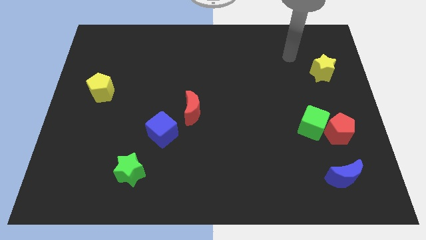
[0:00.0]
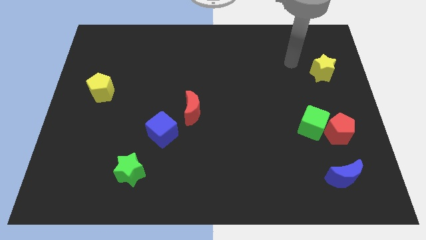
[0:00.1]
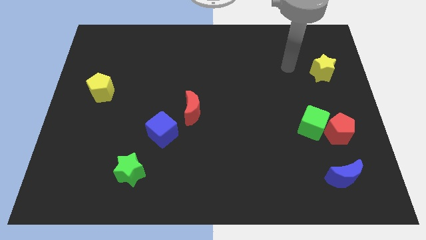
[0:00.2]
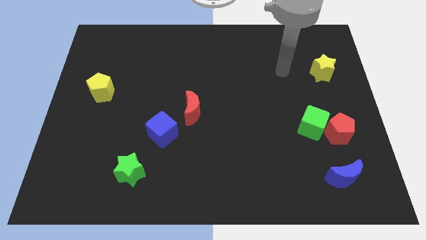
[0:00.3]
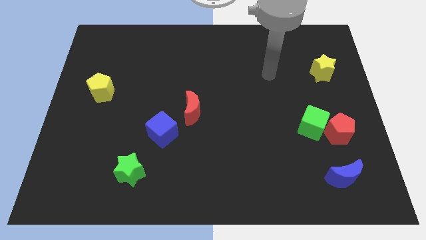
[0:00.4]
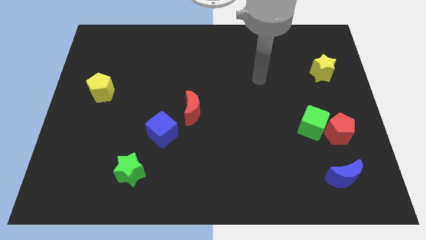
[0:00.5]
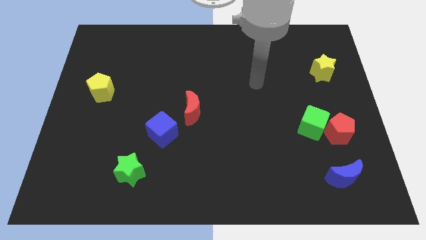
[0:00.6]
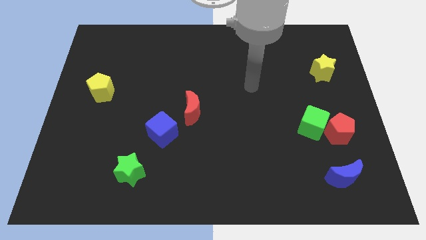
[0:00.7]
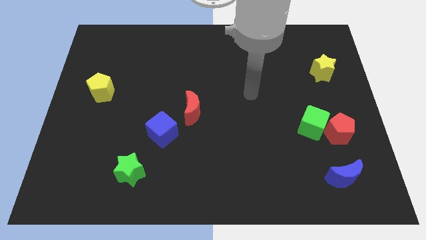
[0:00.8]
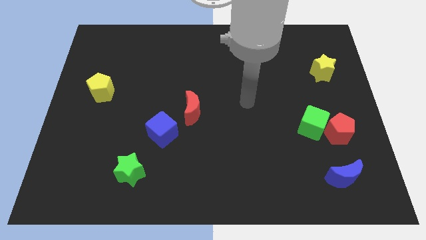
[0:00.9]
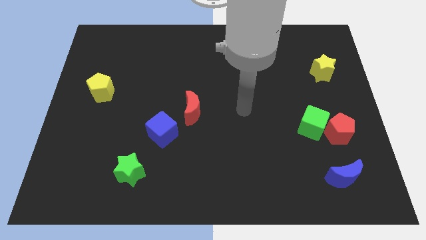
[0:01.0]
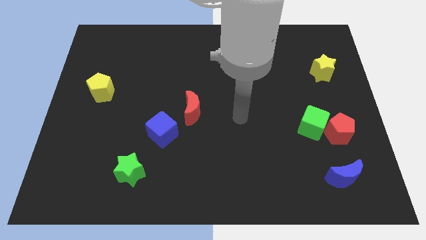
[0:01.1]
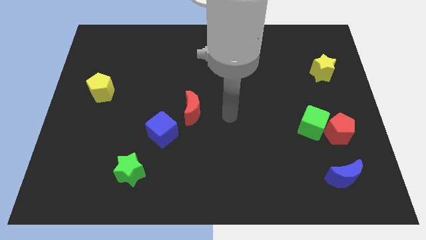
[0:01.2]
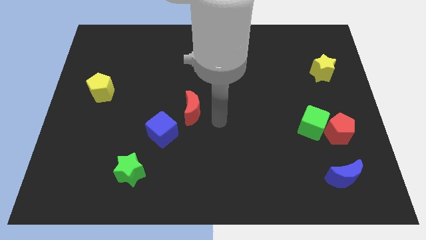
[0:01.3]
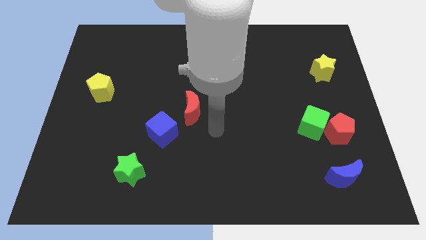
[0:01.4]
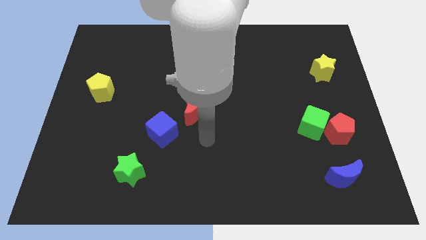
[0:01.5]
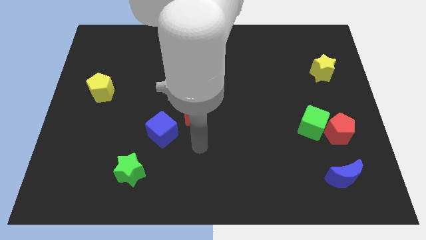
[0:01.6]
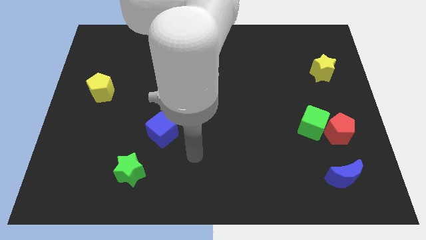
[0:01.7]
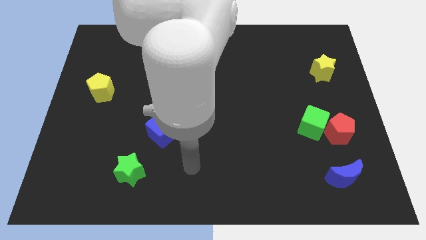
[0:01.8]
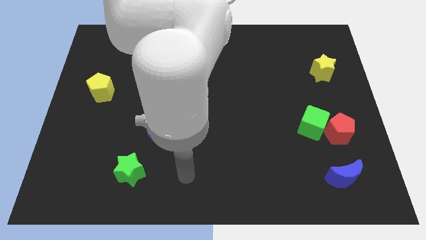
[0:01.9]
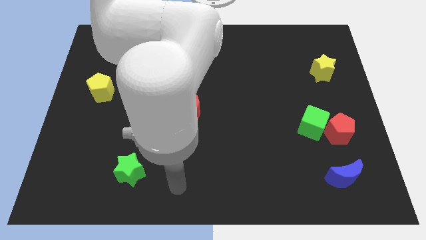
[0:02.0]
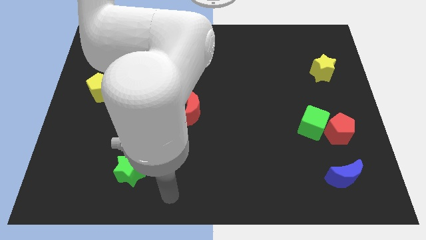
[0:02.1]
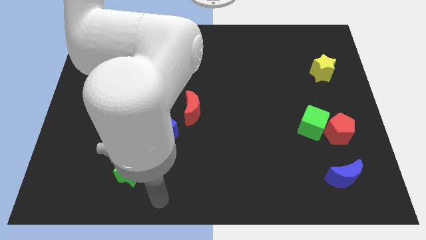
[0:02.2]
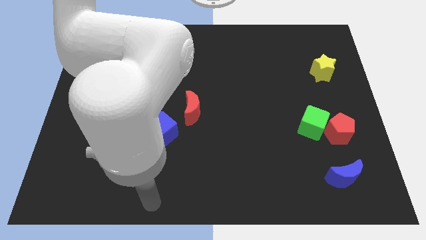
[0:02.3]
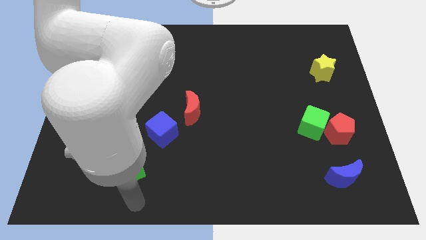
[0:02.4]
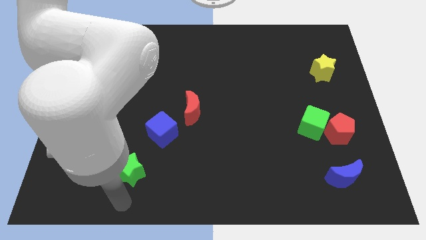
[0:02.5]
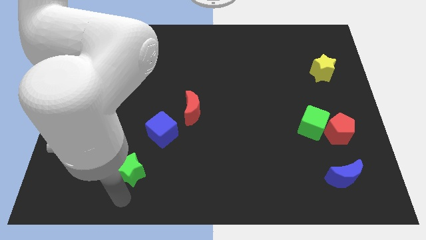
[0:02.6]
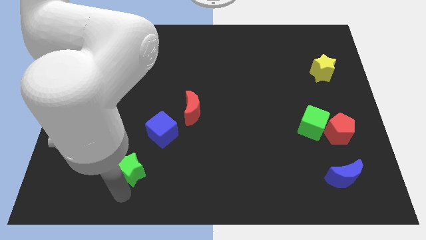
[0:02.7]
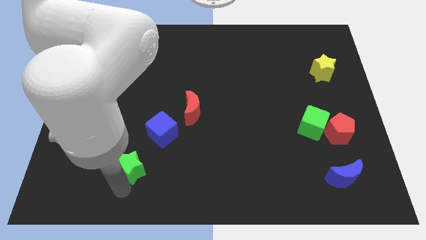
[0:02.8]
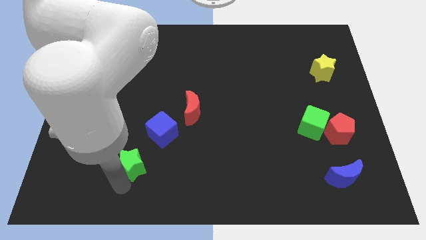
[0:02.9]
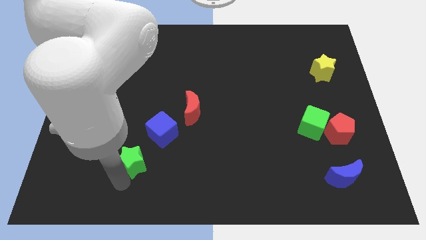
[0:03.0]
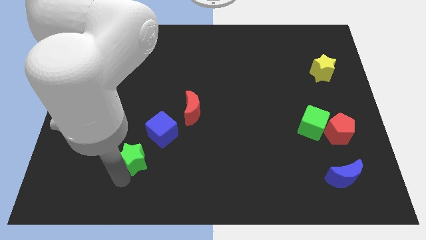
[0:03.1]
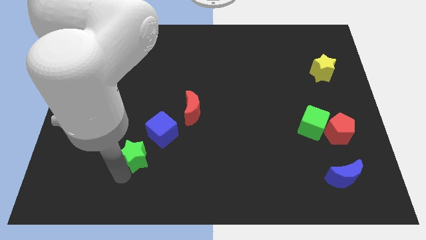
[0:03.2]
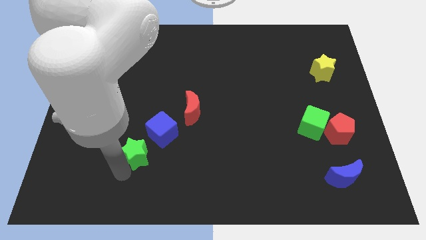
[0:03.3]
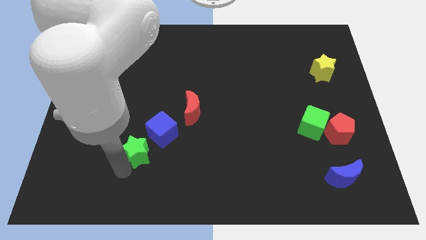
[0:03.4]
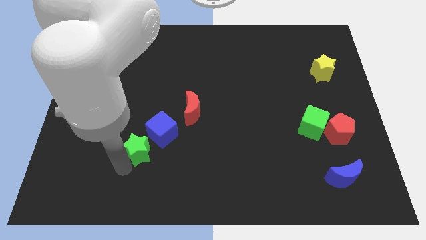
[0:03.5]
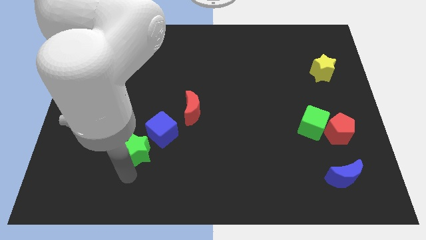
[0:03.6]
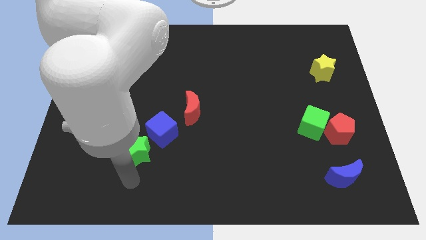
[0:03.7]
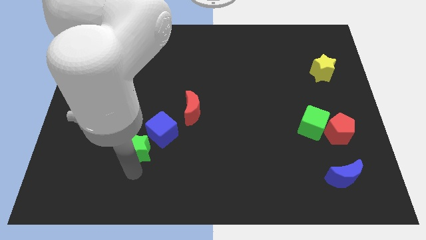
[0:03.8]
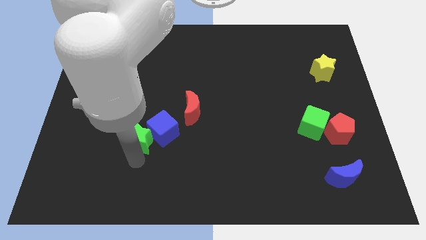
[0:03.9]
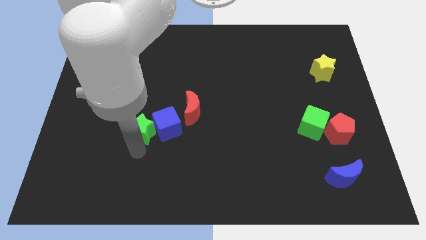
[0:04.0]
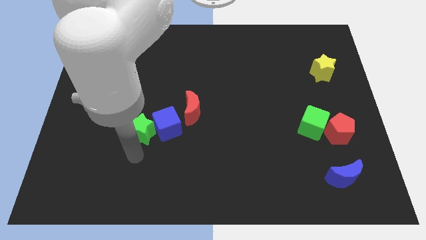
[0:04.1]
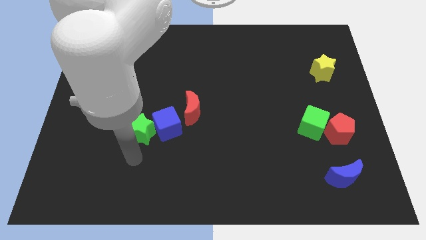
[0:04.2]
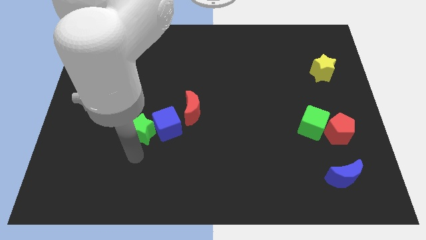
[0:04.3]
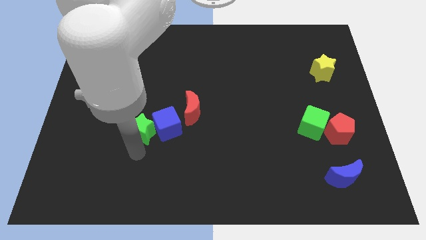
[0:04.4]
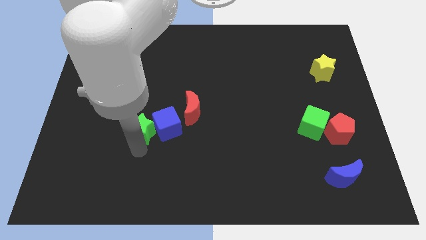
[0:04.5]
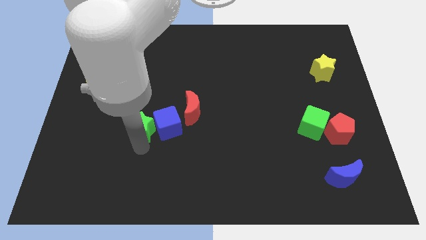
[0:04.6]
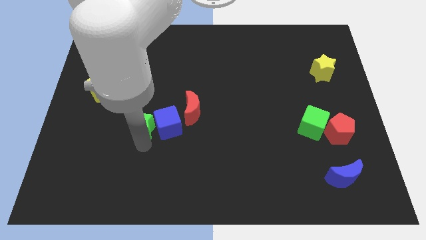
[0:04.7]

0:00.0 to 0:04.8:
slide the green star left of the red moon

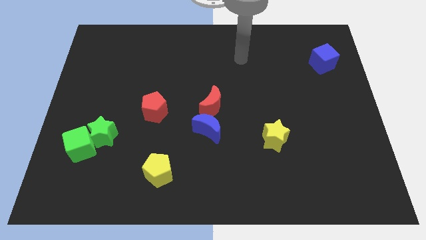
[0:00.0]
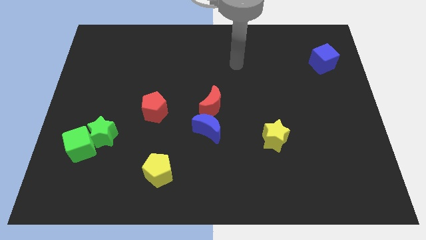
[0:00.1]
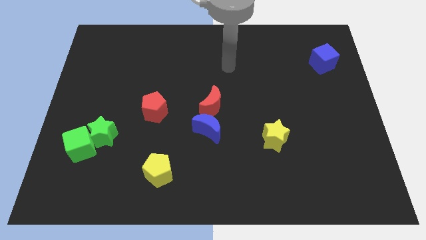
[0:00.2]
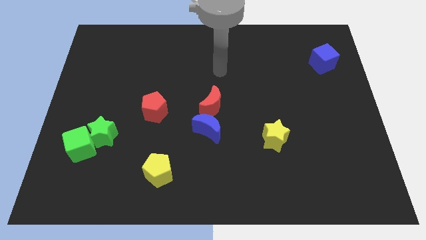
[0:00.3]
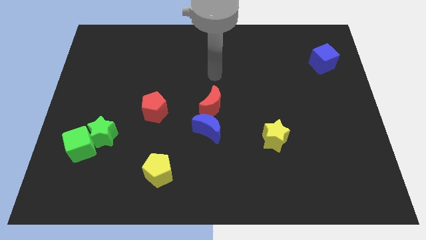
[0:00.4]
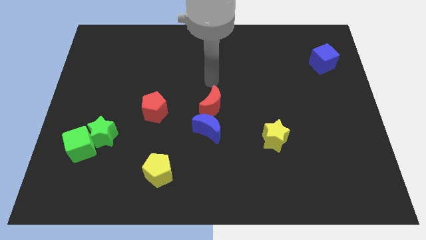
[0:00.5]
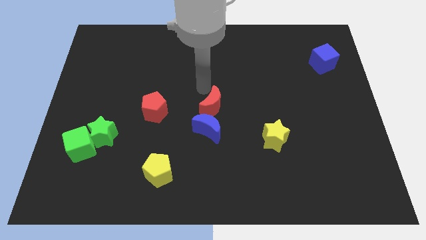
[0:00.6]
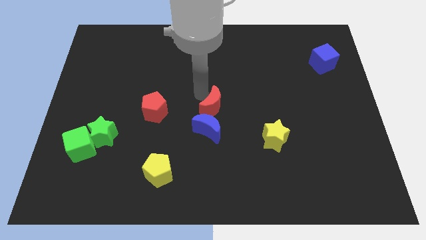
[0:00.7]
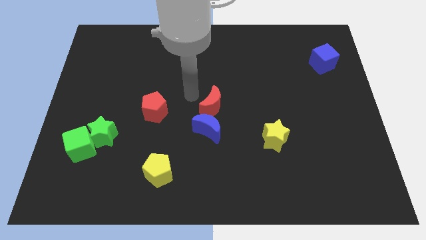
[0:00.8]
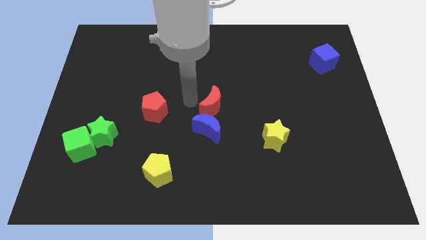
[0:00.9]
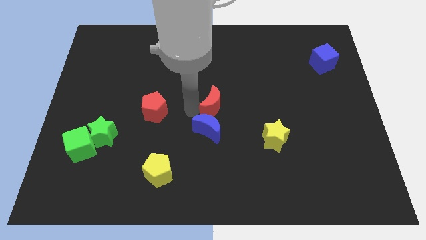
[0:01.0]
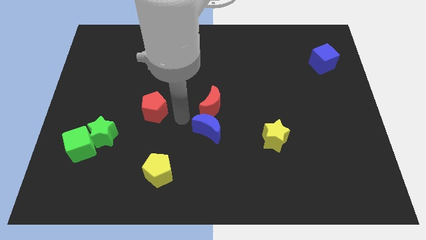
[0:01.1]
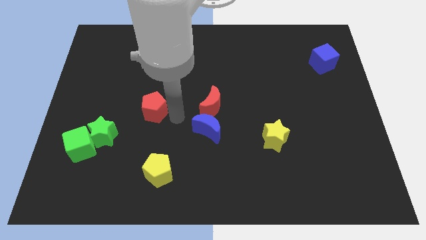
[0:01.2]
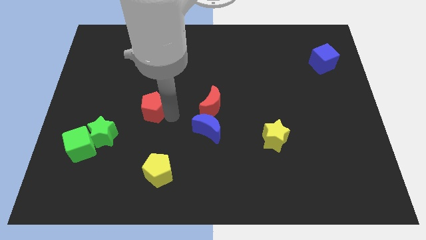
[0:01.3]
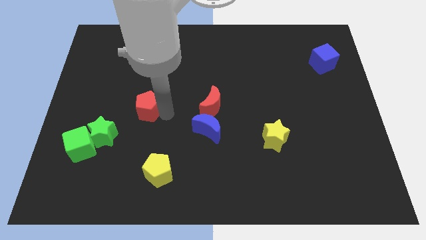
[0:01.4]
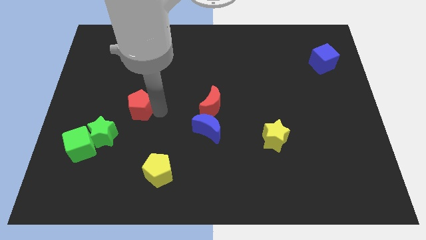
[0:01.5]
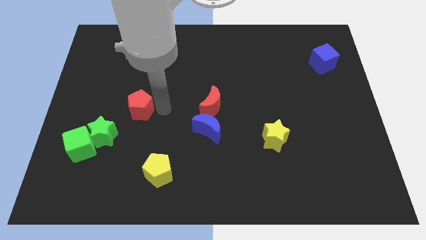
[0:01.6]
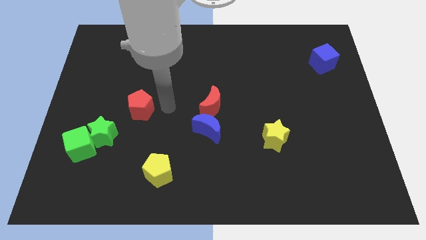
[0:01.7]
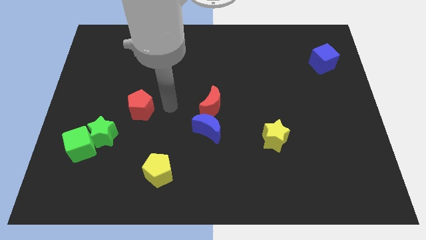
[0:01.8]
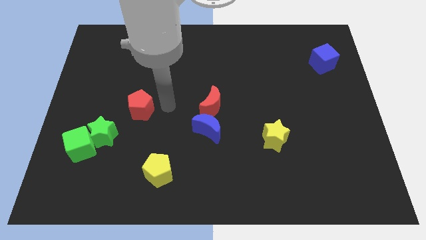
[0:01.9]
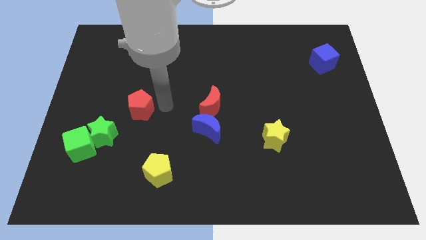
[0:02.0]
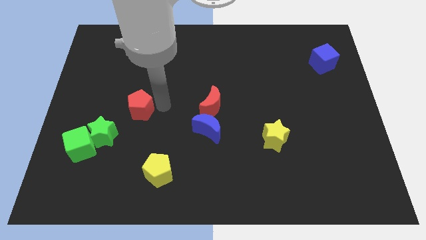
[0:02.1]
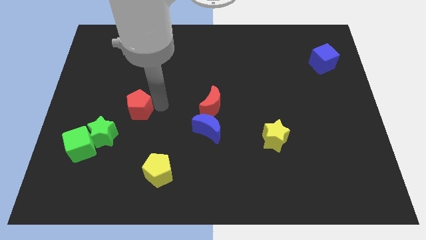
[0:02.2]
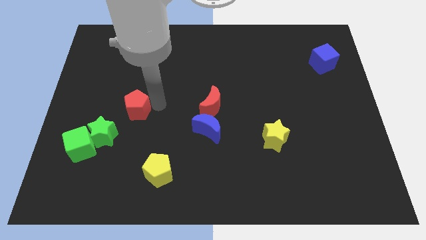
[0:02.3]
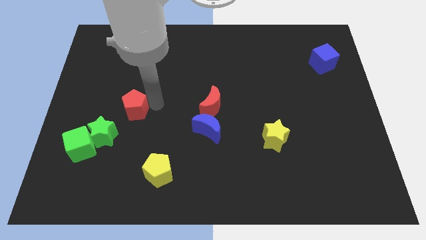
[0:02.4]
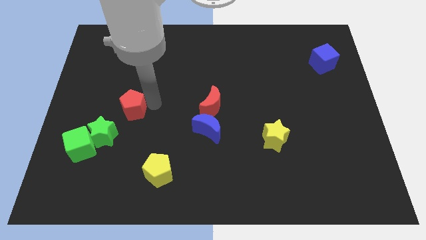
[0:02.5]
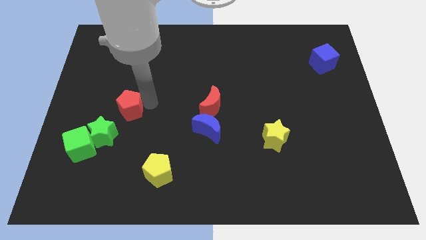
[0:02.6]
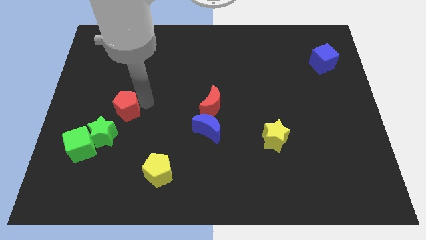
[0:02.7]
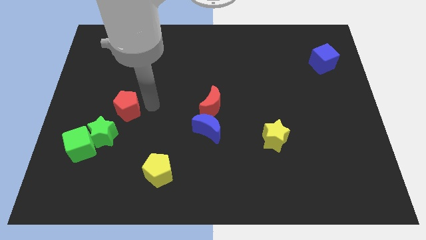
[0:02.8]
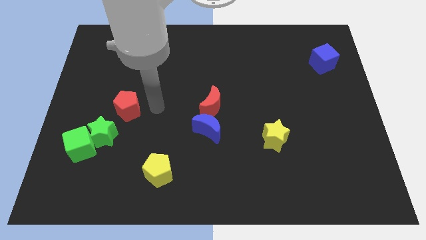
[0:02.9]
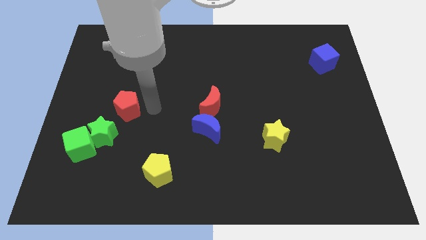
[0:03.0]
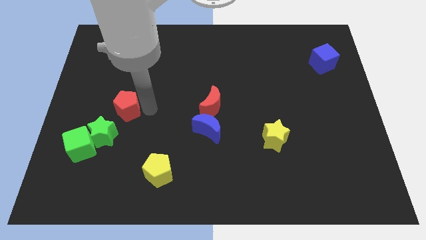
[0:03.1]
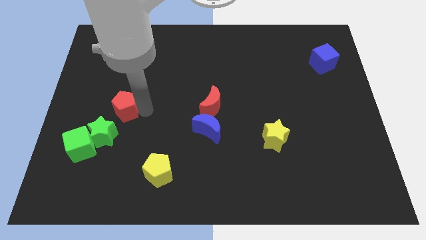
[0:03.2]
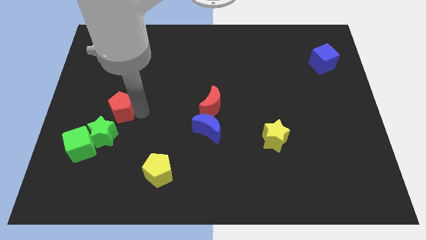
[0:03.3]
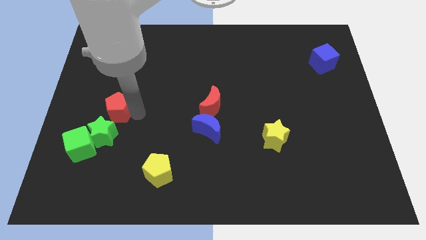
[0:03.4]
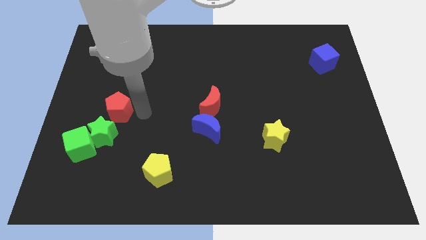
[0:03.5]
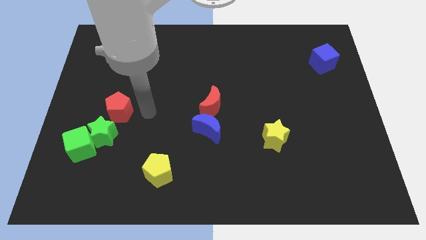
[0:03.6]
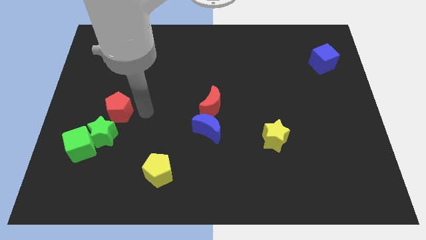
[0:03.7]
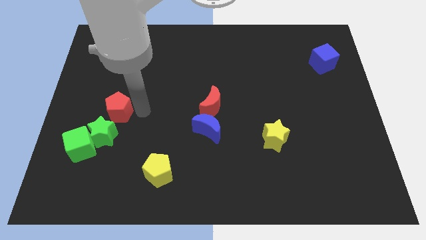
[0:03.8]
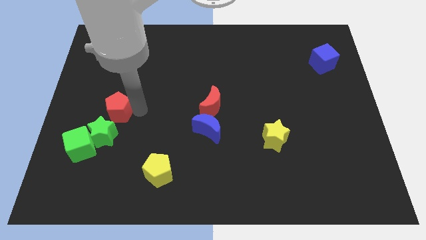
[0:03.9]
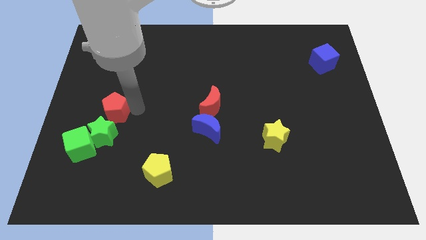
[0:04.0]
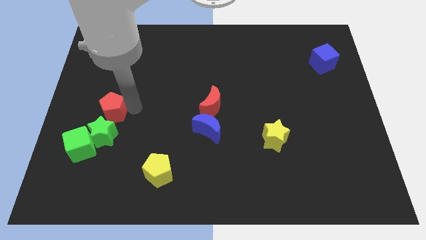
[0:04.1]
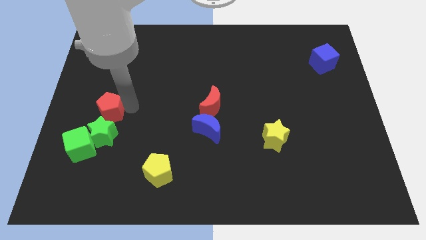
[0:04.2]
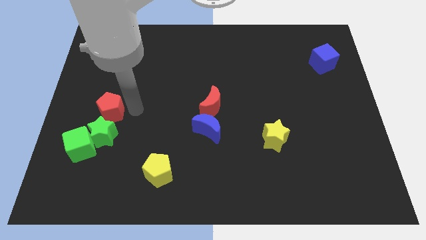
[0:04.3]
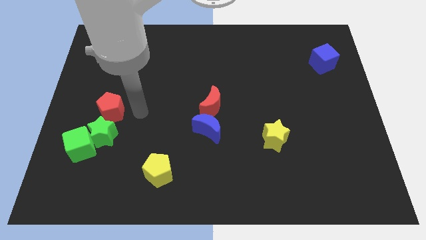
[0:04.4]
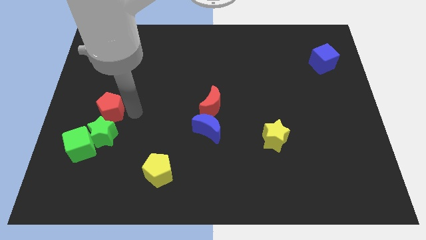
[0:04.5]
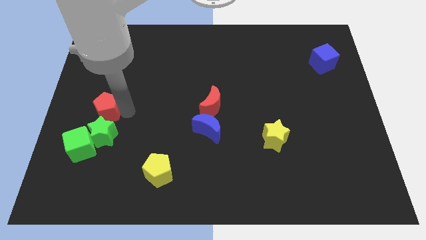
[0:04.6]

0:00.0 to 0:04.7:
put the red pentagon to the top side of the green cube
